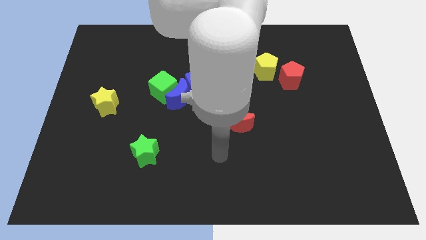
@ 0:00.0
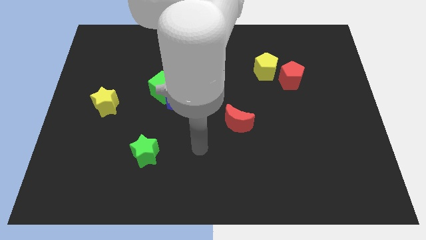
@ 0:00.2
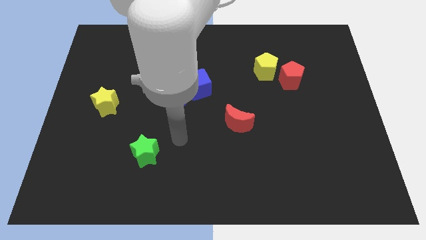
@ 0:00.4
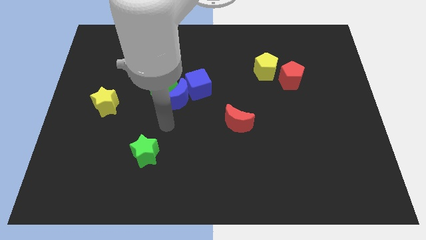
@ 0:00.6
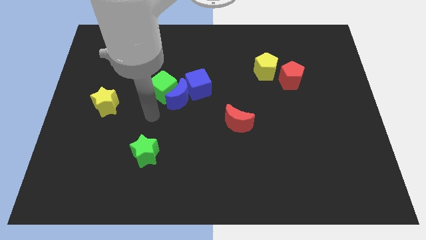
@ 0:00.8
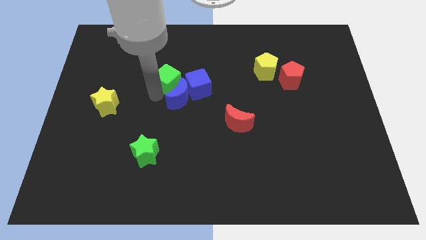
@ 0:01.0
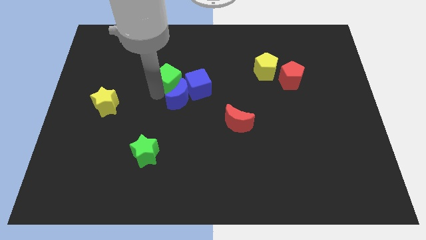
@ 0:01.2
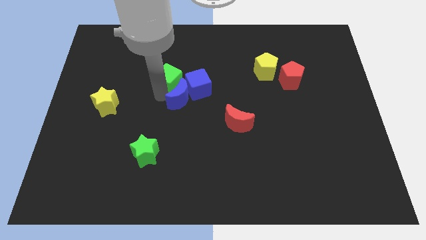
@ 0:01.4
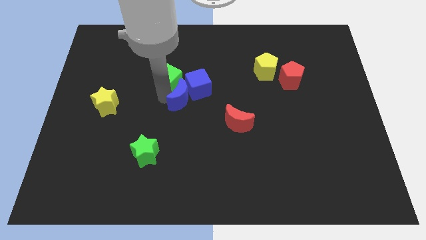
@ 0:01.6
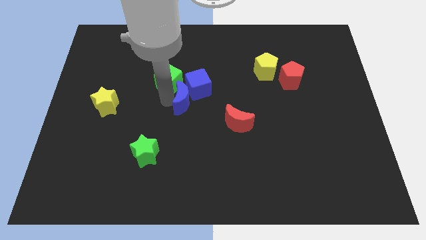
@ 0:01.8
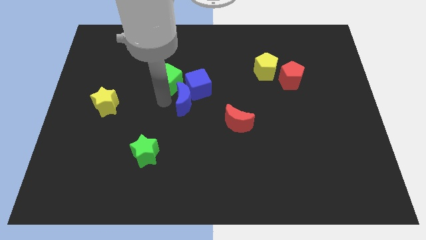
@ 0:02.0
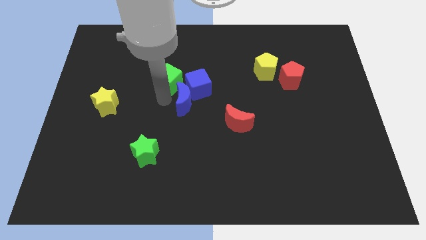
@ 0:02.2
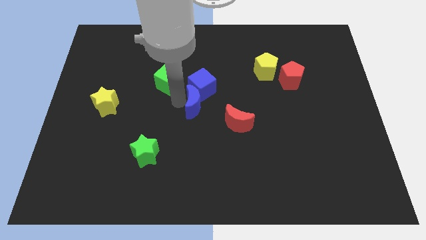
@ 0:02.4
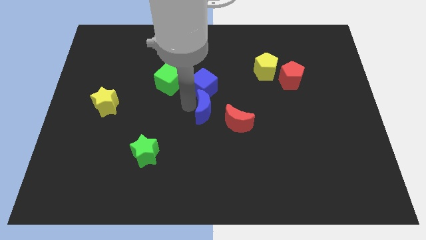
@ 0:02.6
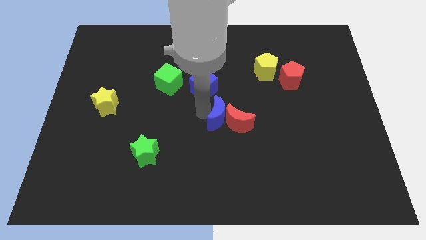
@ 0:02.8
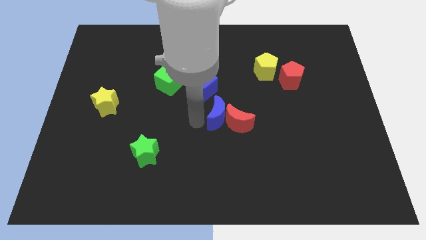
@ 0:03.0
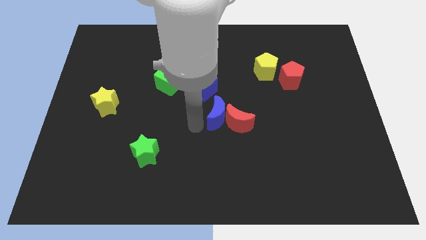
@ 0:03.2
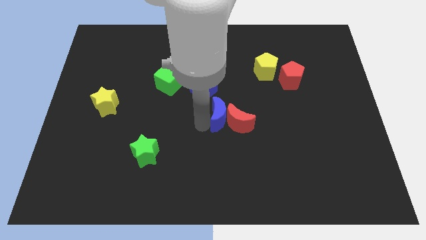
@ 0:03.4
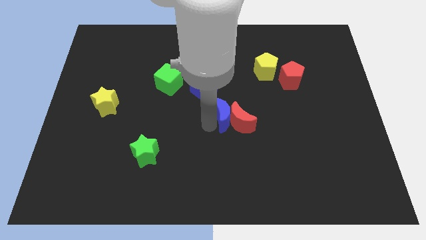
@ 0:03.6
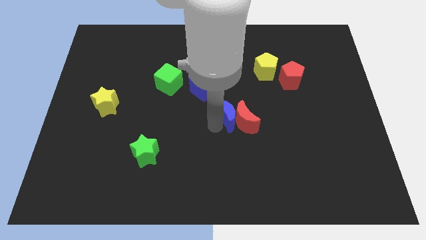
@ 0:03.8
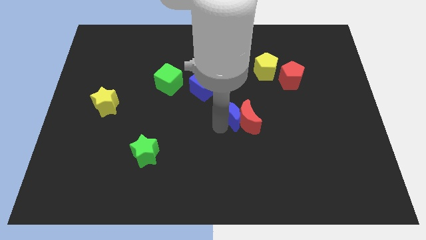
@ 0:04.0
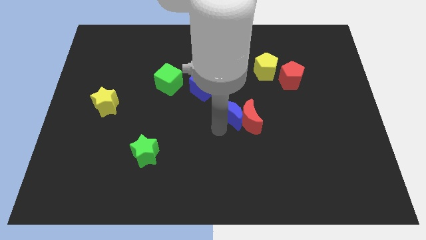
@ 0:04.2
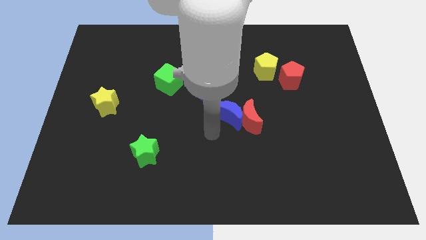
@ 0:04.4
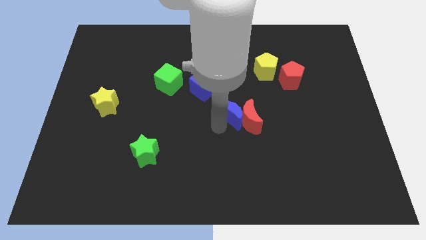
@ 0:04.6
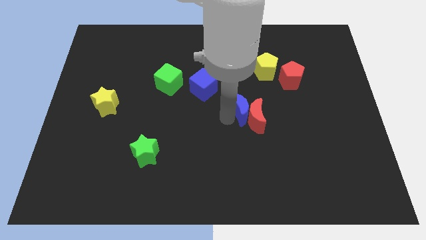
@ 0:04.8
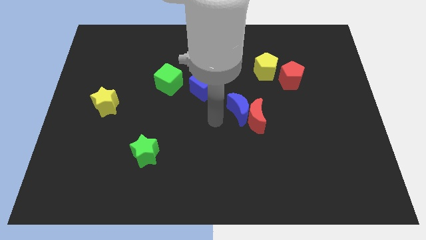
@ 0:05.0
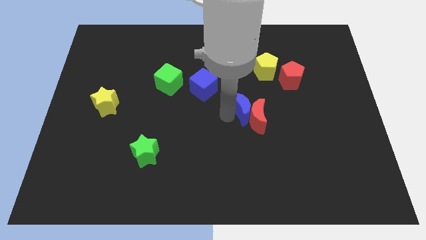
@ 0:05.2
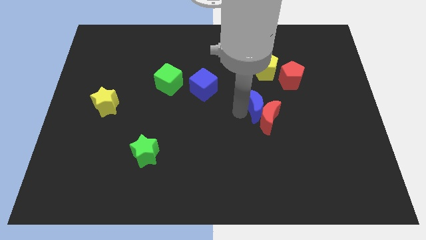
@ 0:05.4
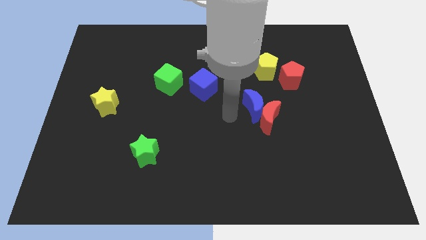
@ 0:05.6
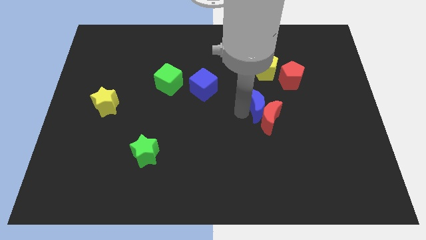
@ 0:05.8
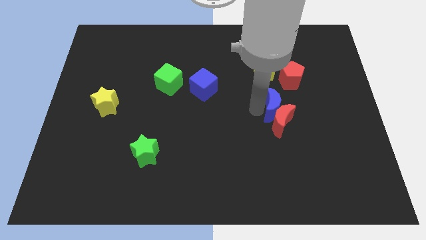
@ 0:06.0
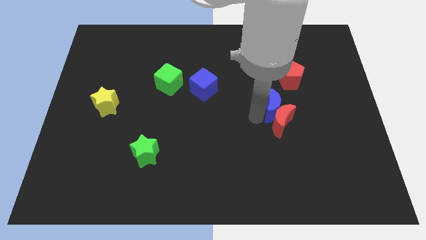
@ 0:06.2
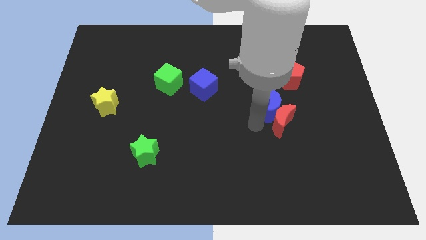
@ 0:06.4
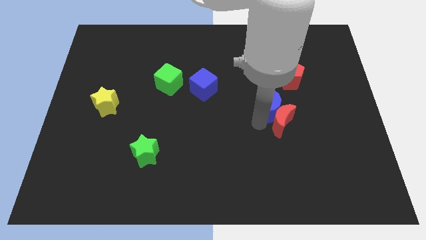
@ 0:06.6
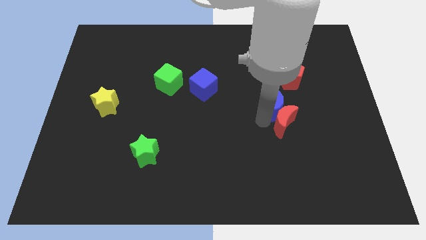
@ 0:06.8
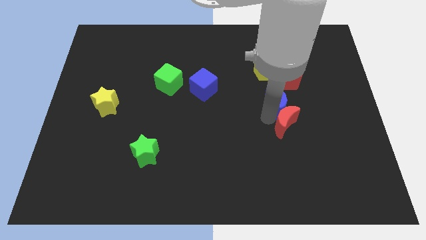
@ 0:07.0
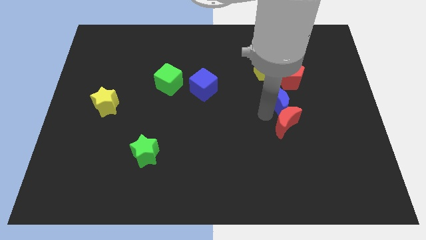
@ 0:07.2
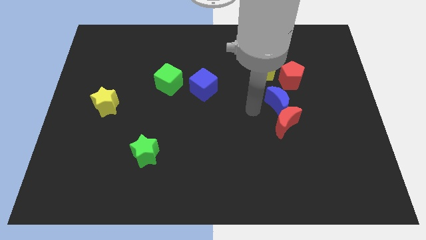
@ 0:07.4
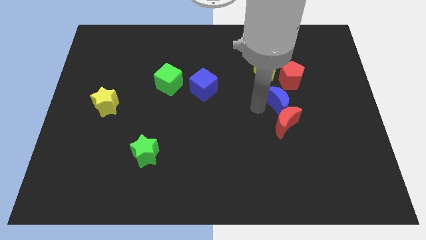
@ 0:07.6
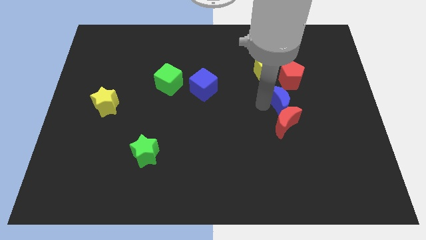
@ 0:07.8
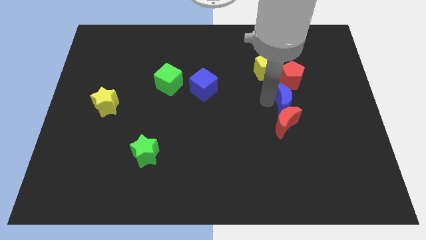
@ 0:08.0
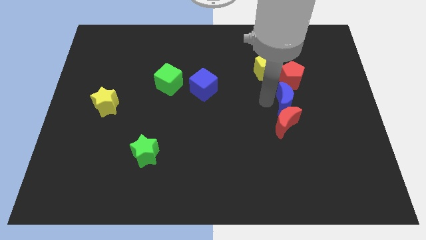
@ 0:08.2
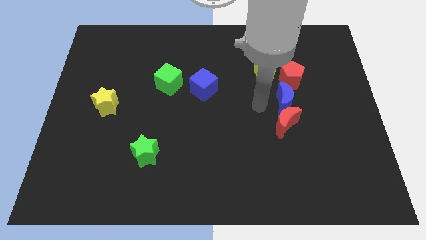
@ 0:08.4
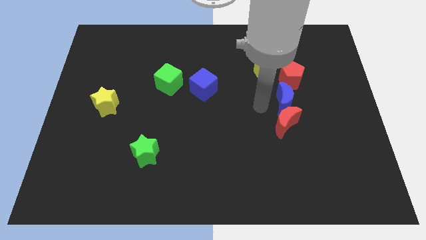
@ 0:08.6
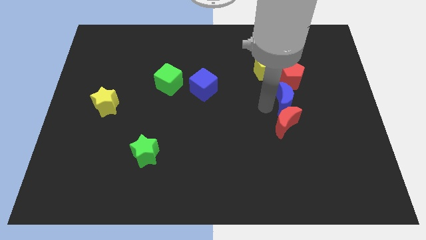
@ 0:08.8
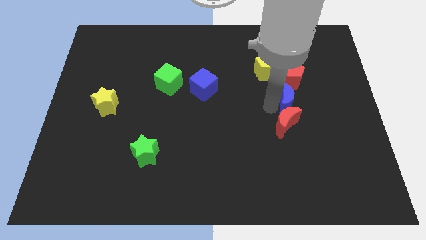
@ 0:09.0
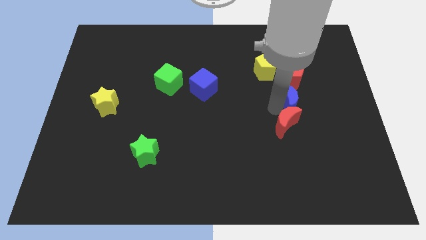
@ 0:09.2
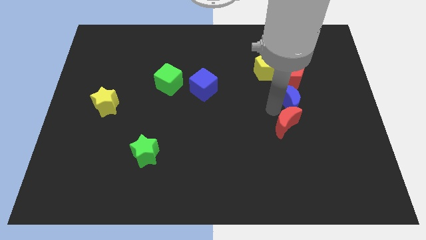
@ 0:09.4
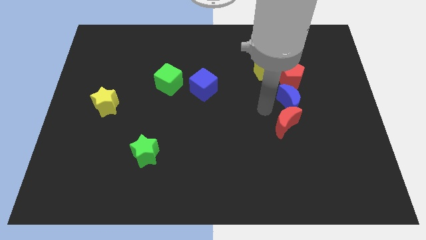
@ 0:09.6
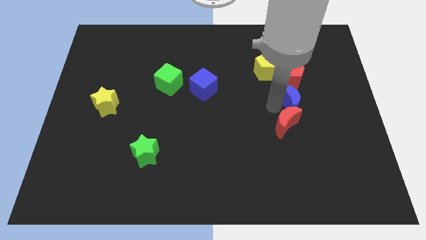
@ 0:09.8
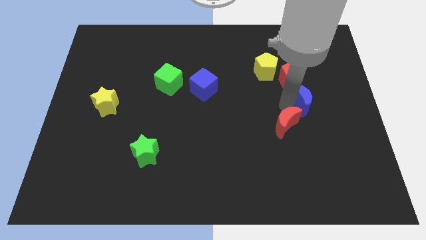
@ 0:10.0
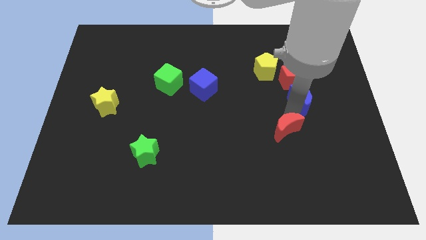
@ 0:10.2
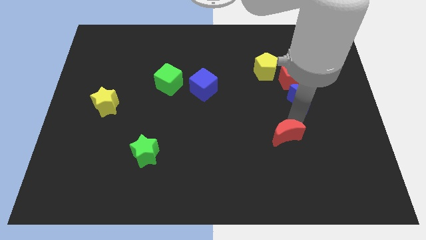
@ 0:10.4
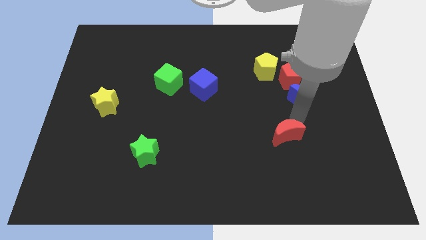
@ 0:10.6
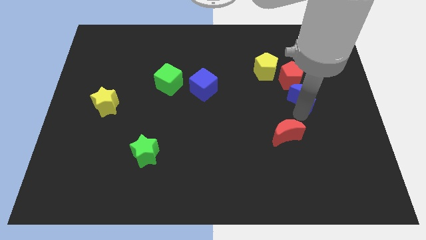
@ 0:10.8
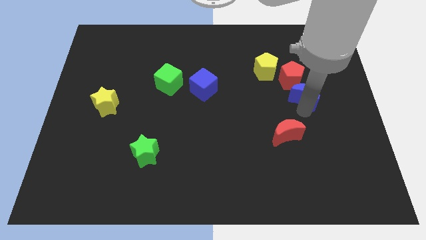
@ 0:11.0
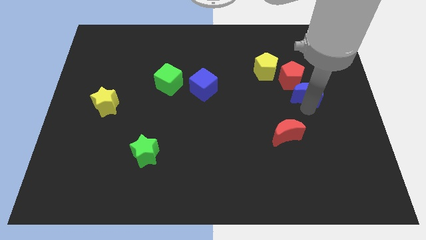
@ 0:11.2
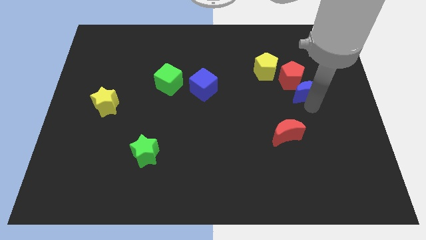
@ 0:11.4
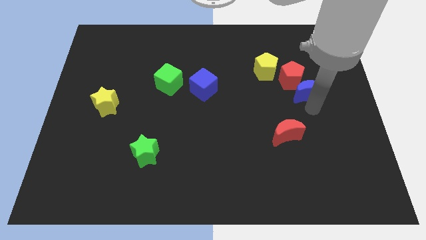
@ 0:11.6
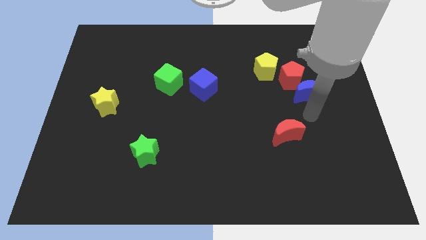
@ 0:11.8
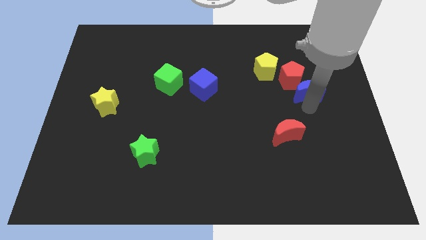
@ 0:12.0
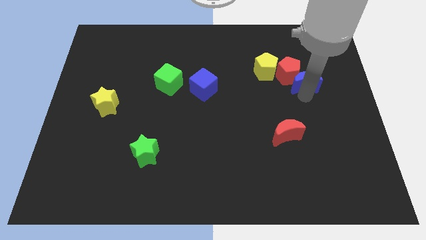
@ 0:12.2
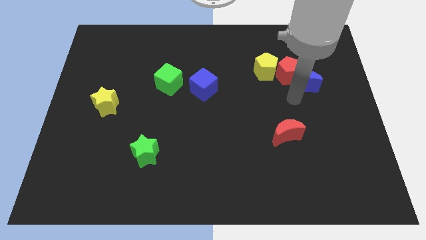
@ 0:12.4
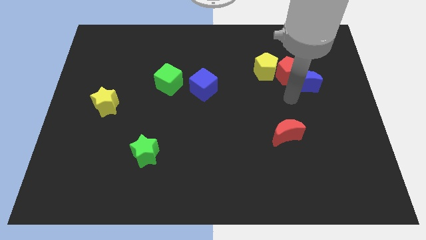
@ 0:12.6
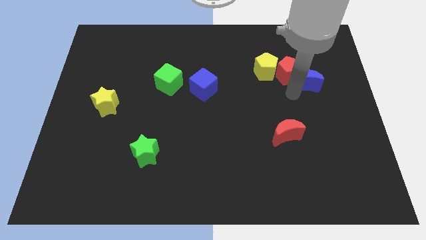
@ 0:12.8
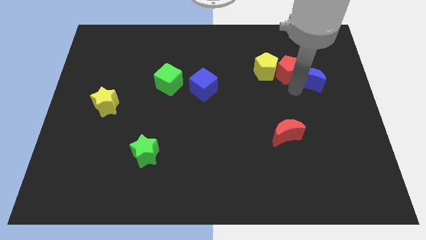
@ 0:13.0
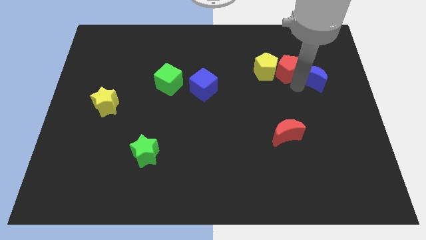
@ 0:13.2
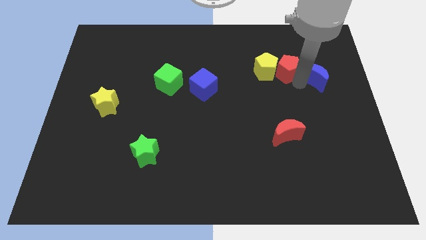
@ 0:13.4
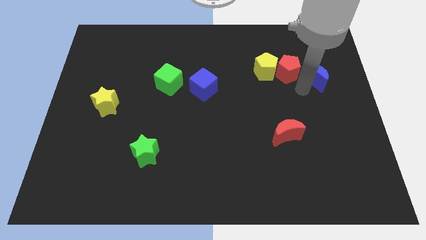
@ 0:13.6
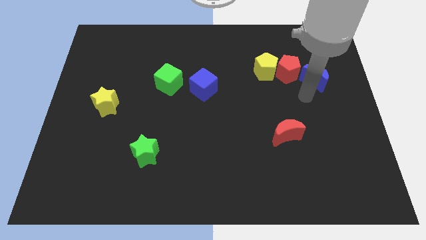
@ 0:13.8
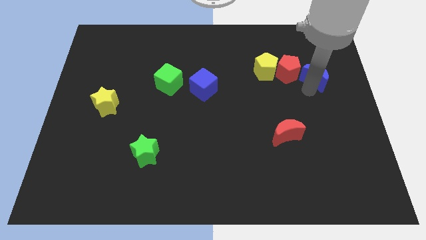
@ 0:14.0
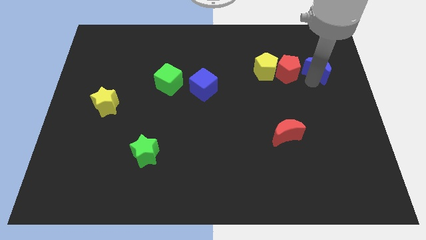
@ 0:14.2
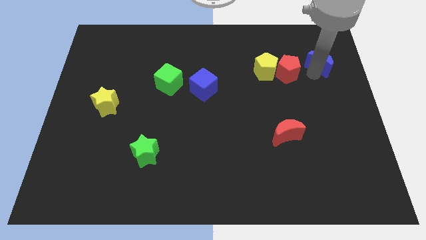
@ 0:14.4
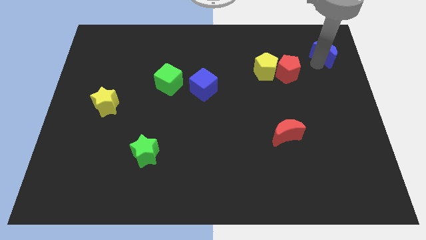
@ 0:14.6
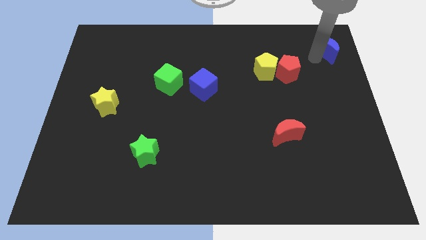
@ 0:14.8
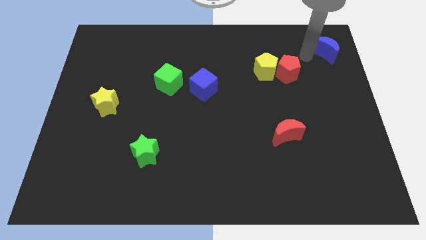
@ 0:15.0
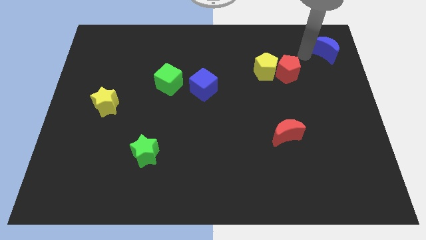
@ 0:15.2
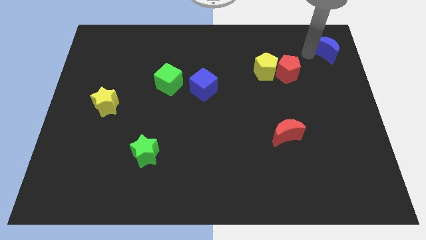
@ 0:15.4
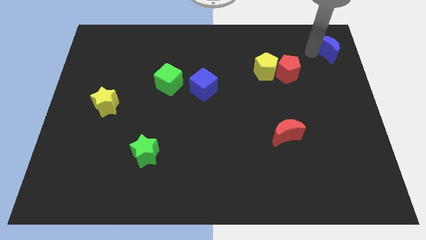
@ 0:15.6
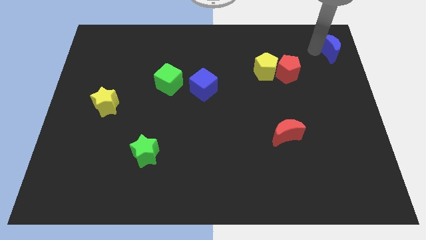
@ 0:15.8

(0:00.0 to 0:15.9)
put the blue moon to the top right
